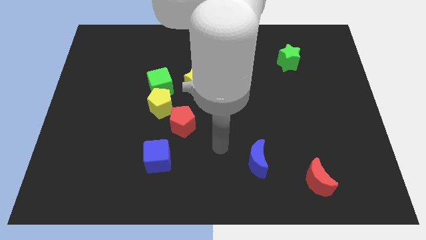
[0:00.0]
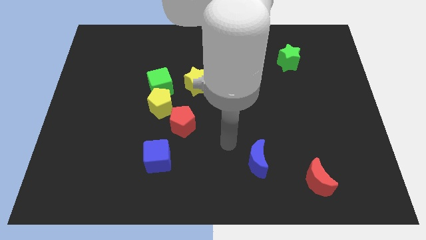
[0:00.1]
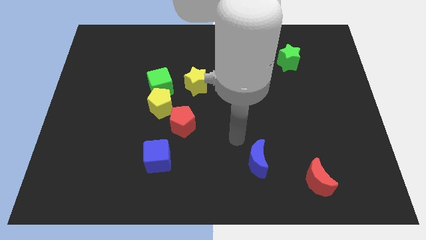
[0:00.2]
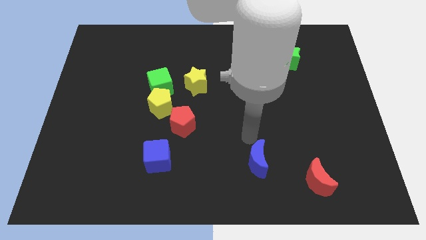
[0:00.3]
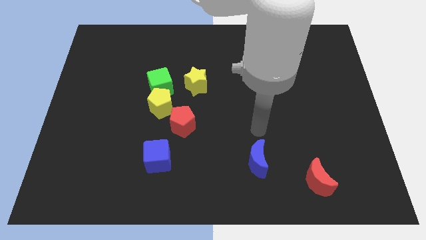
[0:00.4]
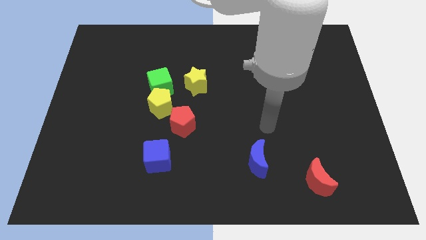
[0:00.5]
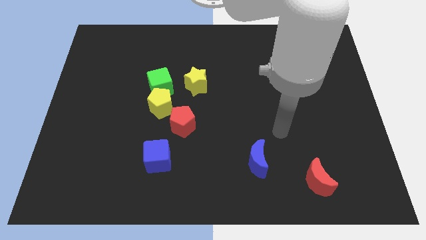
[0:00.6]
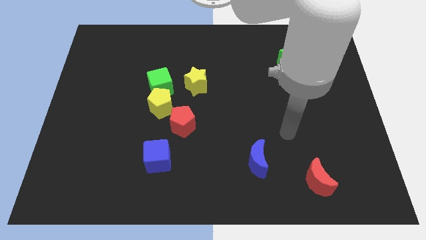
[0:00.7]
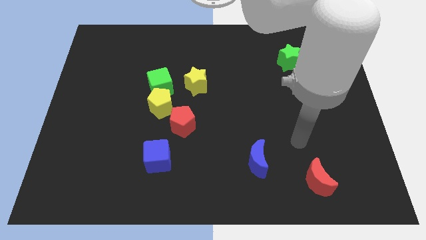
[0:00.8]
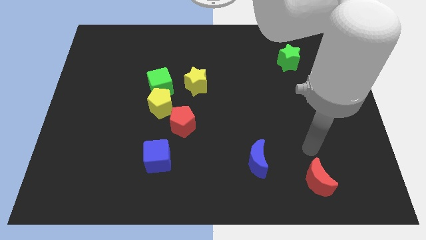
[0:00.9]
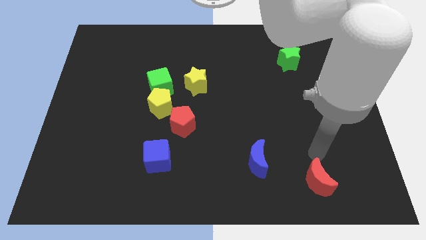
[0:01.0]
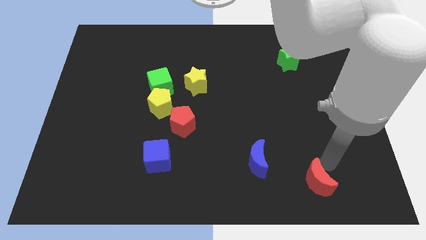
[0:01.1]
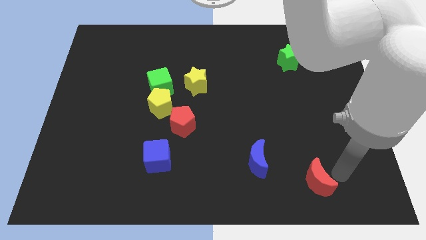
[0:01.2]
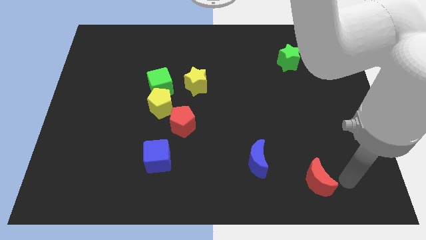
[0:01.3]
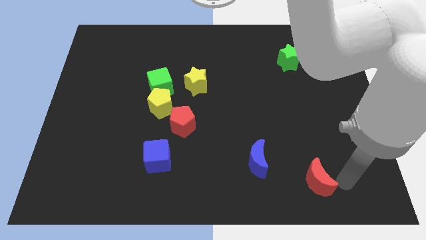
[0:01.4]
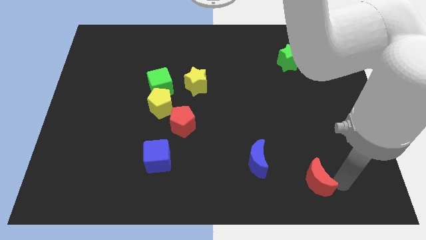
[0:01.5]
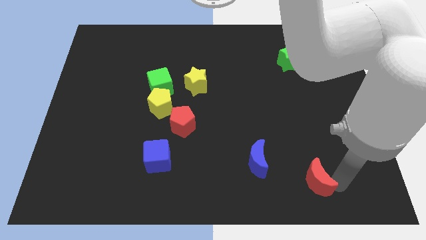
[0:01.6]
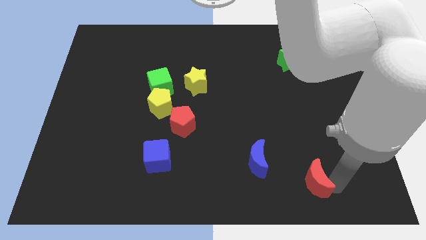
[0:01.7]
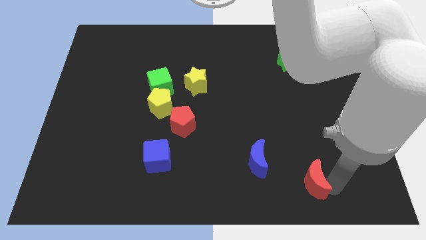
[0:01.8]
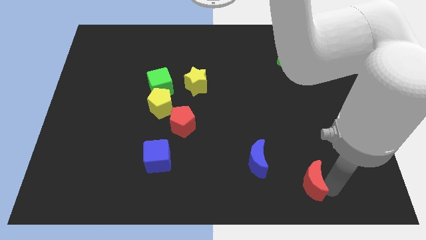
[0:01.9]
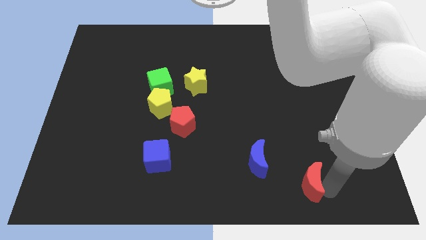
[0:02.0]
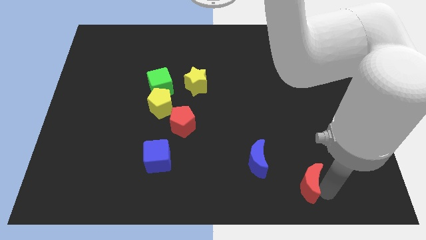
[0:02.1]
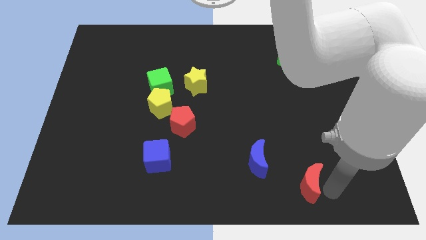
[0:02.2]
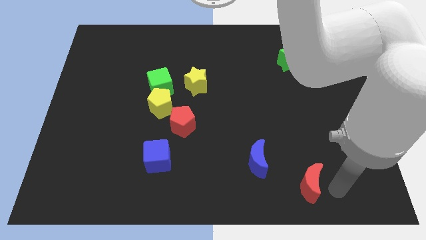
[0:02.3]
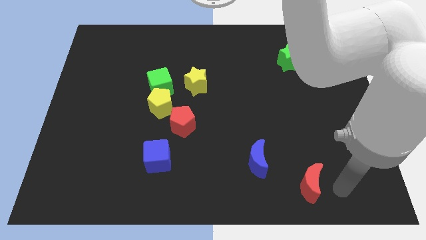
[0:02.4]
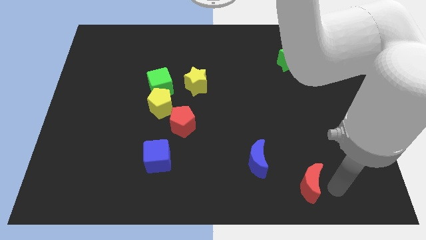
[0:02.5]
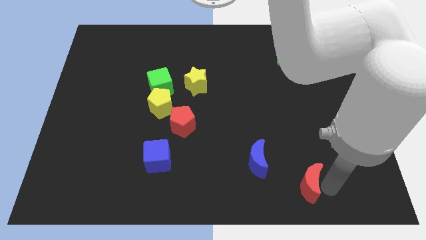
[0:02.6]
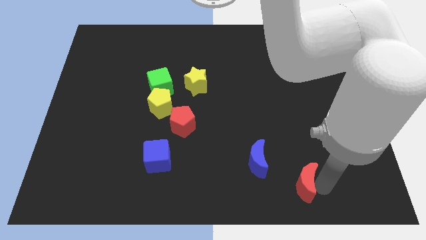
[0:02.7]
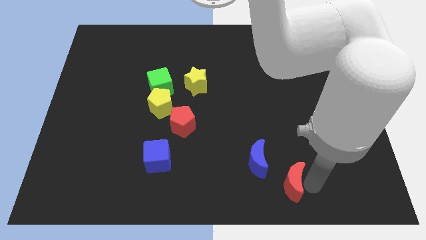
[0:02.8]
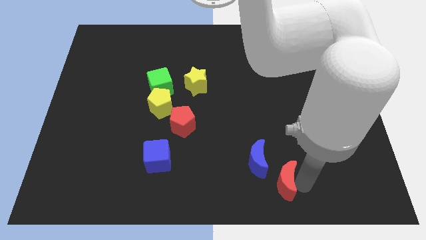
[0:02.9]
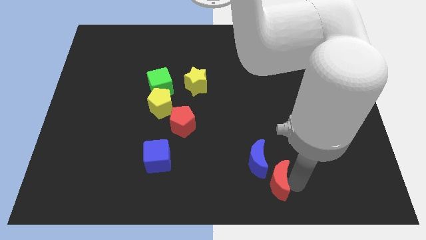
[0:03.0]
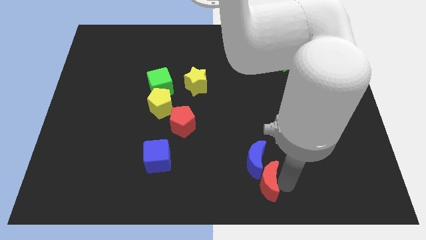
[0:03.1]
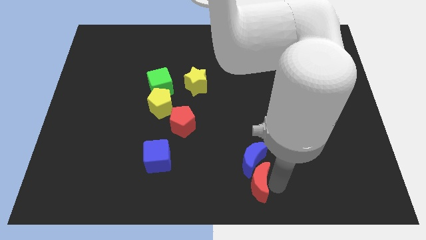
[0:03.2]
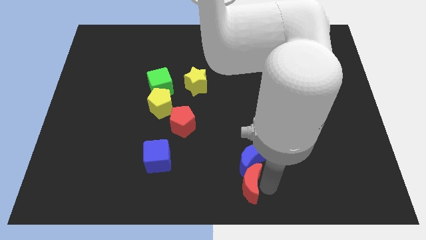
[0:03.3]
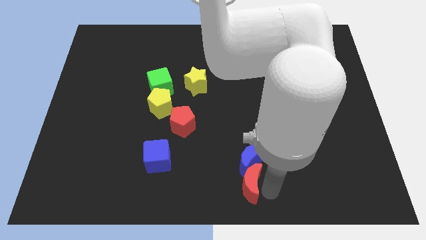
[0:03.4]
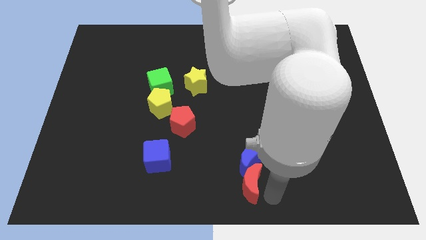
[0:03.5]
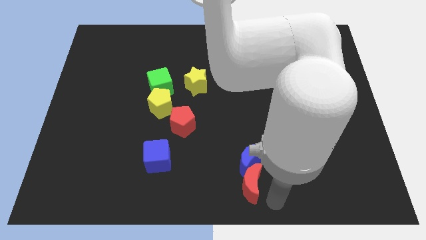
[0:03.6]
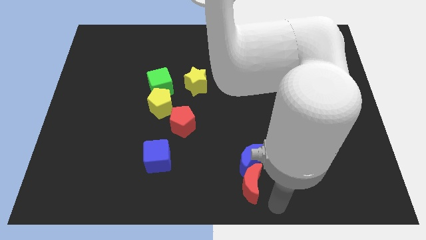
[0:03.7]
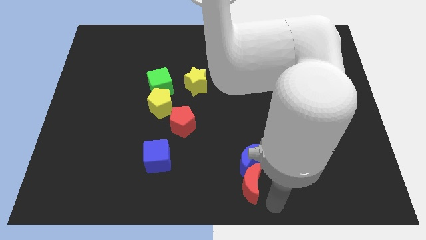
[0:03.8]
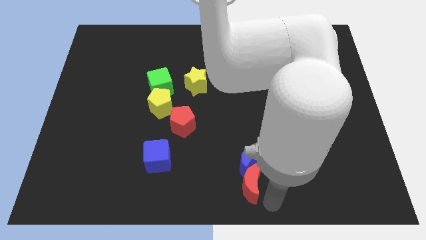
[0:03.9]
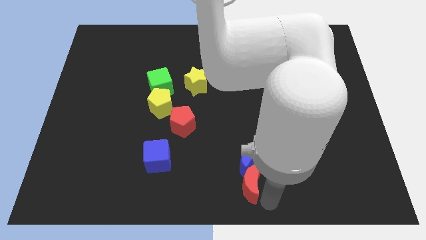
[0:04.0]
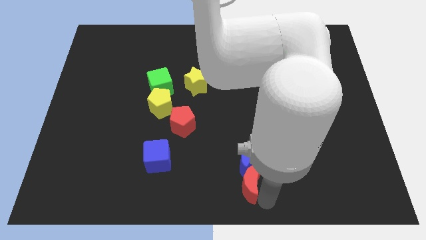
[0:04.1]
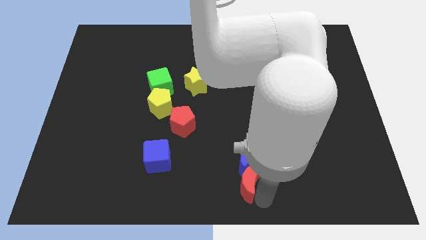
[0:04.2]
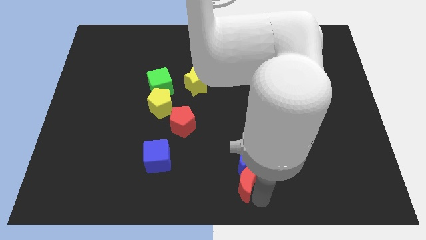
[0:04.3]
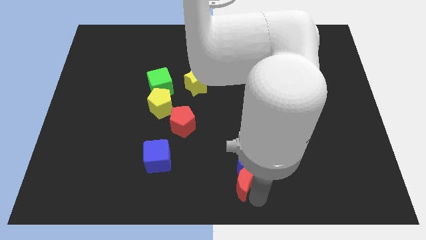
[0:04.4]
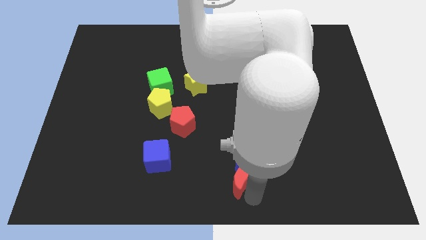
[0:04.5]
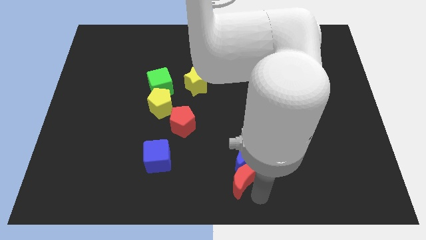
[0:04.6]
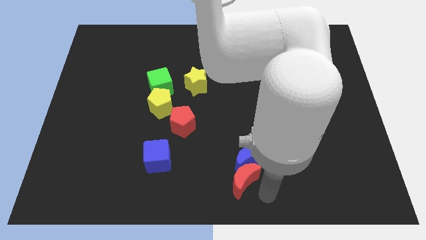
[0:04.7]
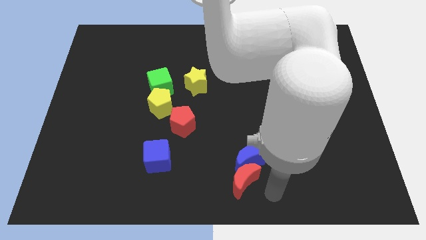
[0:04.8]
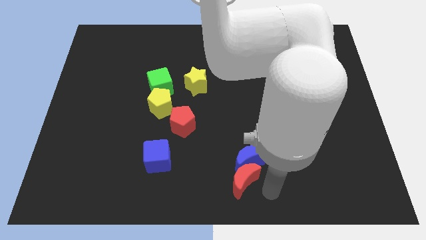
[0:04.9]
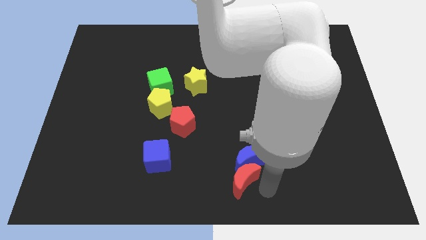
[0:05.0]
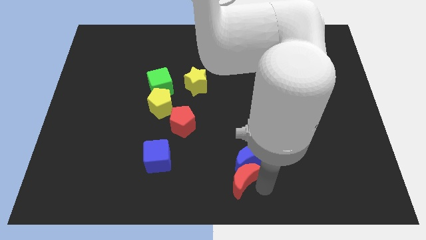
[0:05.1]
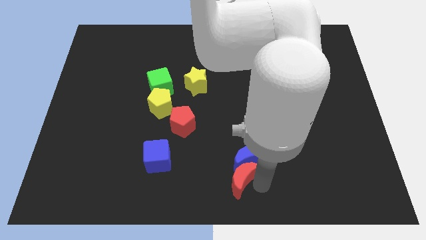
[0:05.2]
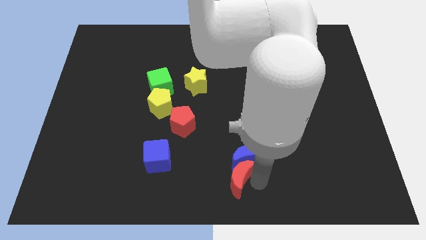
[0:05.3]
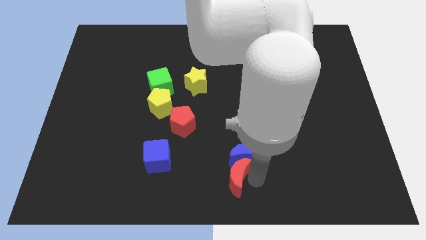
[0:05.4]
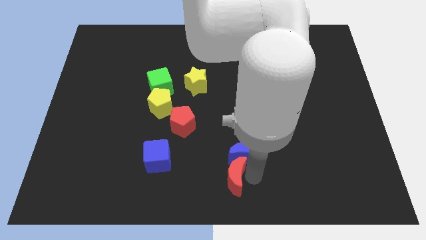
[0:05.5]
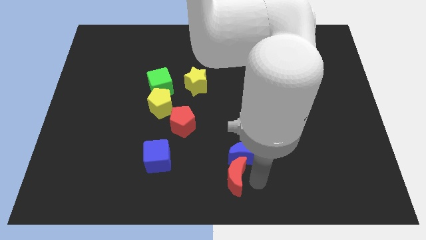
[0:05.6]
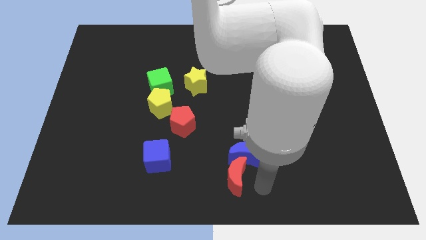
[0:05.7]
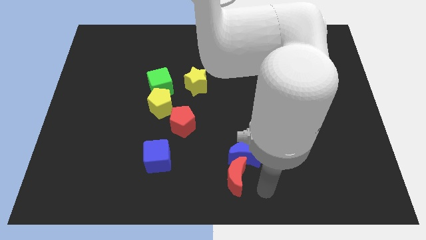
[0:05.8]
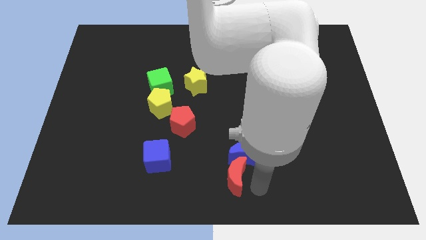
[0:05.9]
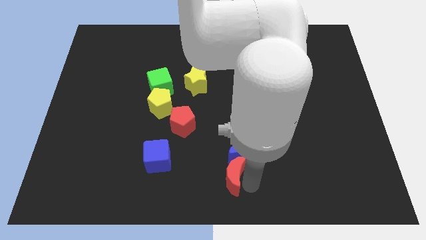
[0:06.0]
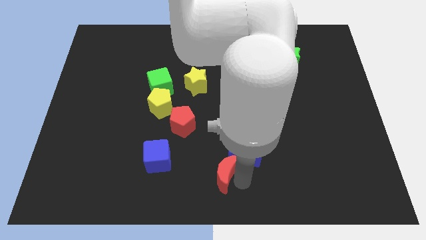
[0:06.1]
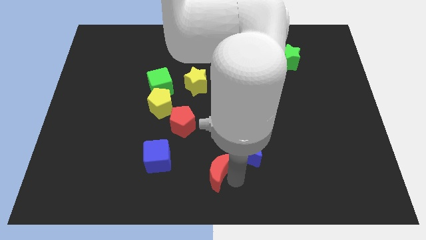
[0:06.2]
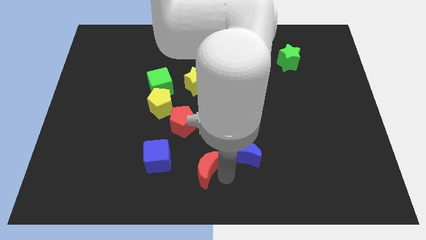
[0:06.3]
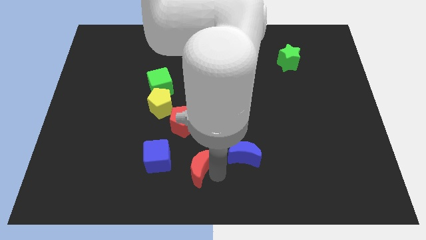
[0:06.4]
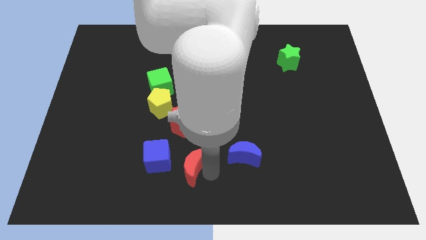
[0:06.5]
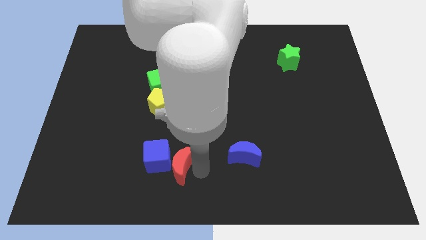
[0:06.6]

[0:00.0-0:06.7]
put the red moon next to the blue cube

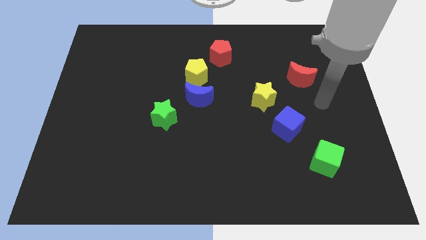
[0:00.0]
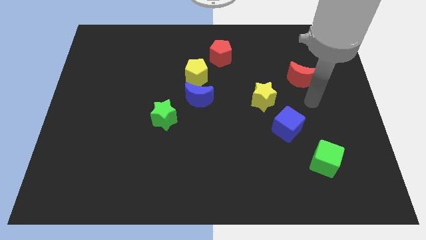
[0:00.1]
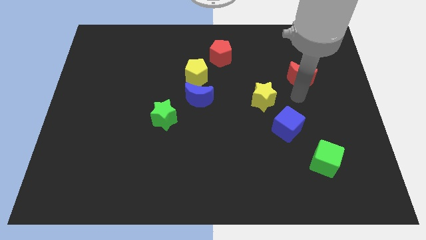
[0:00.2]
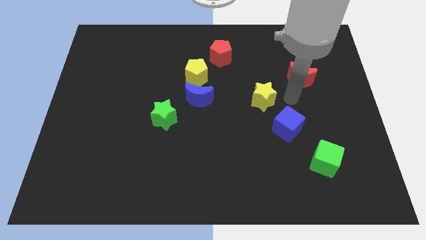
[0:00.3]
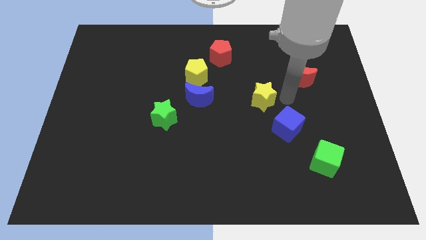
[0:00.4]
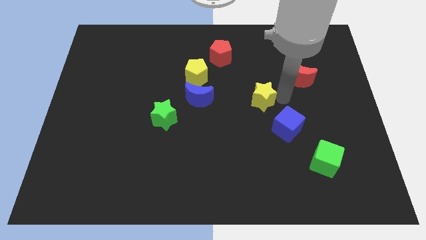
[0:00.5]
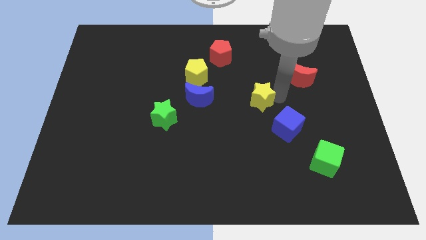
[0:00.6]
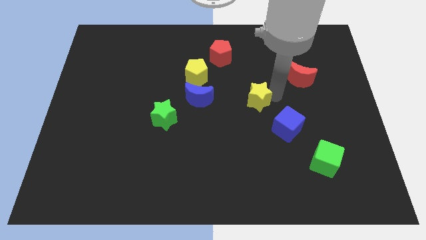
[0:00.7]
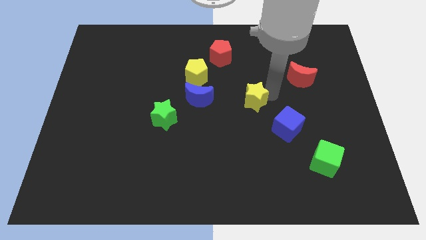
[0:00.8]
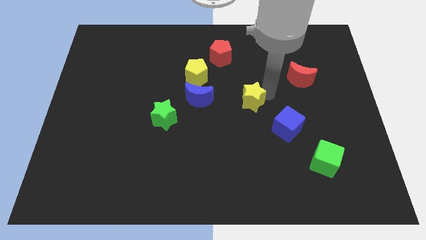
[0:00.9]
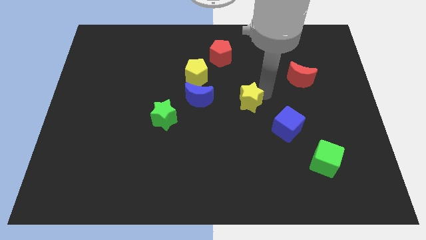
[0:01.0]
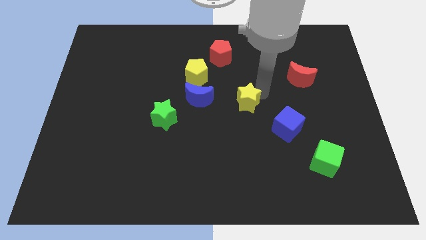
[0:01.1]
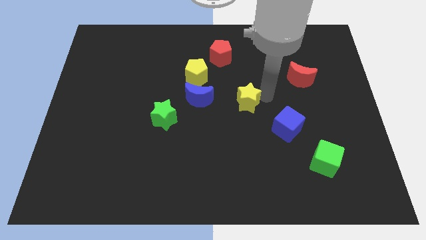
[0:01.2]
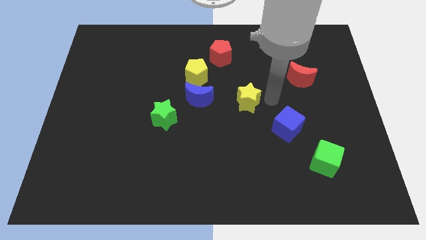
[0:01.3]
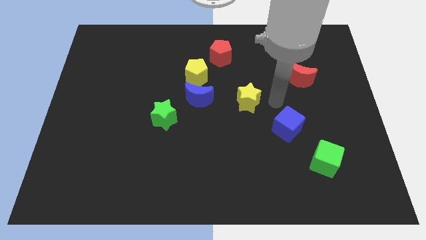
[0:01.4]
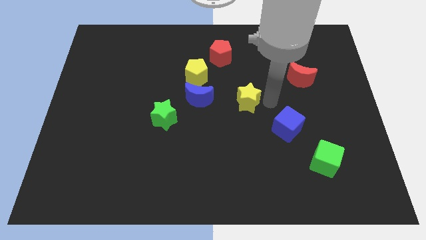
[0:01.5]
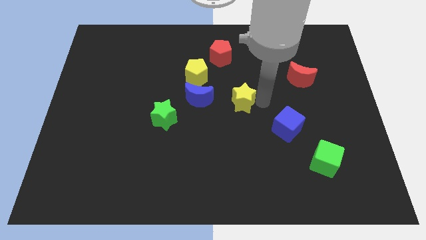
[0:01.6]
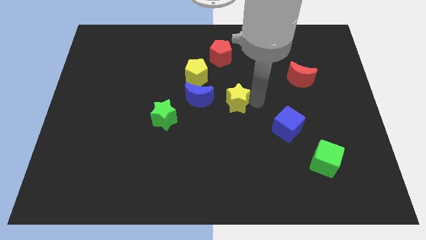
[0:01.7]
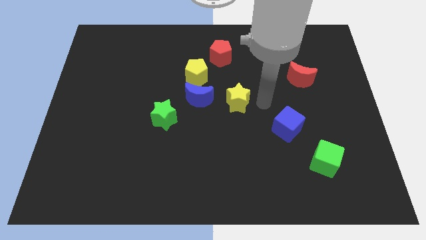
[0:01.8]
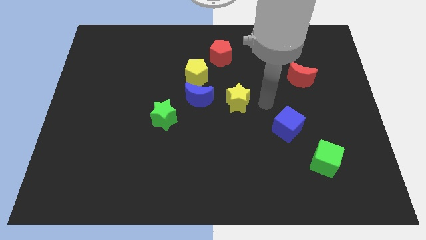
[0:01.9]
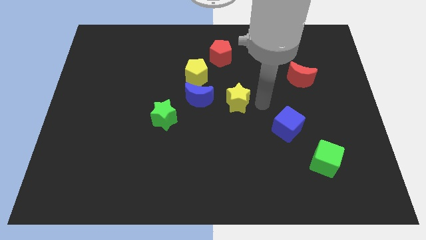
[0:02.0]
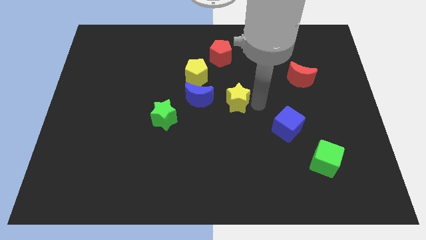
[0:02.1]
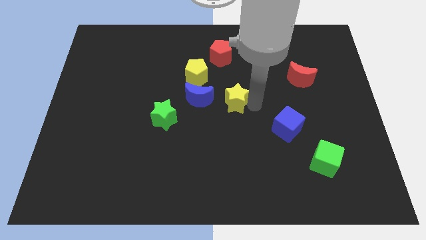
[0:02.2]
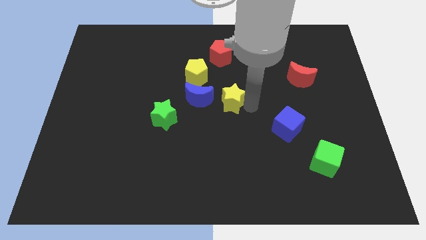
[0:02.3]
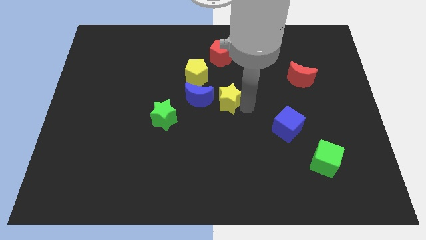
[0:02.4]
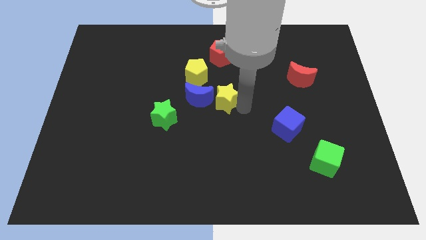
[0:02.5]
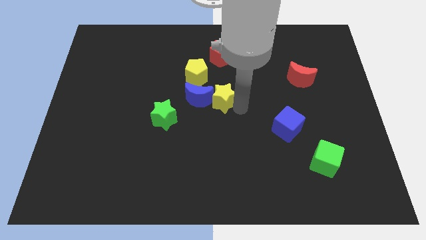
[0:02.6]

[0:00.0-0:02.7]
put the yellow star close to the blue moon
